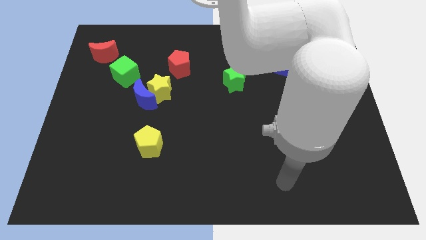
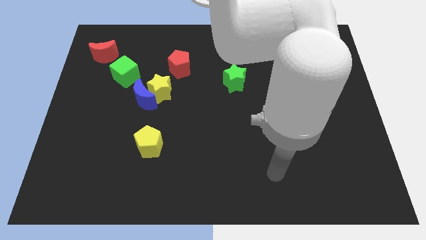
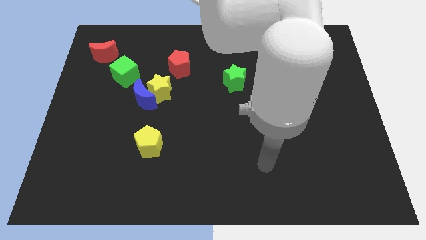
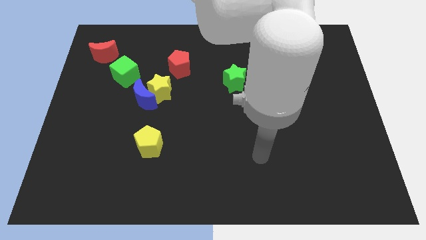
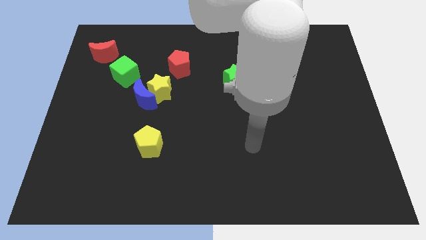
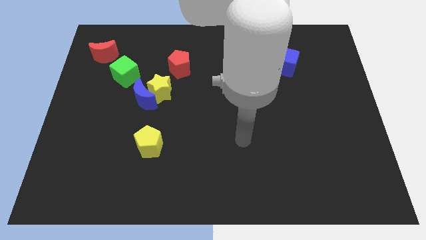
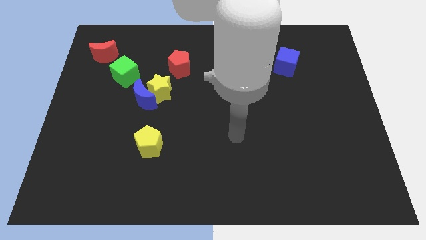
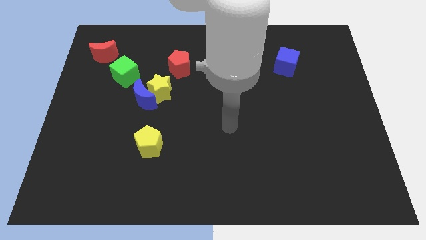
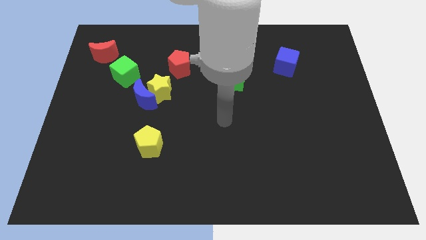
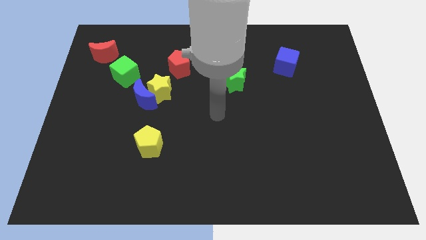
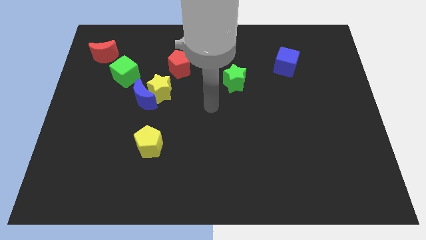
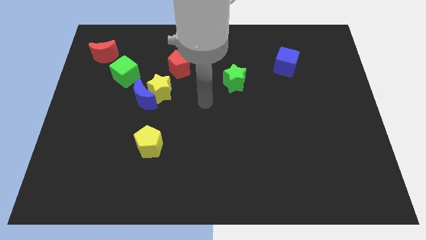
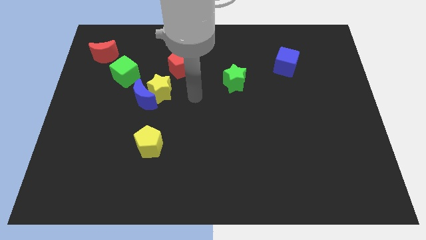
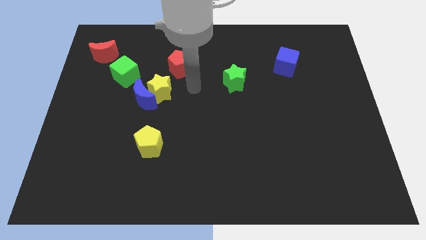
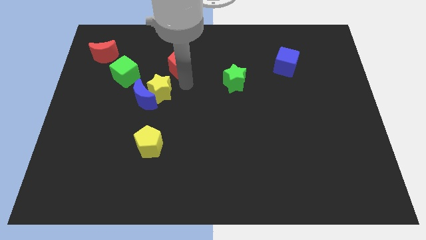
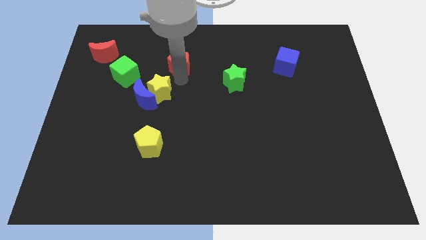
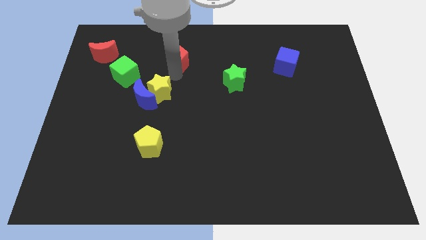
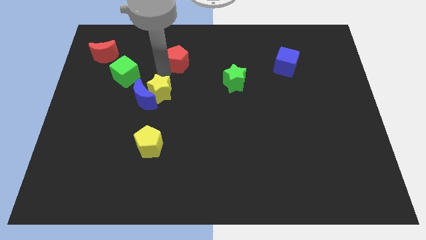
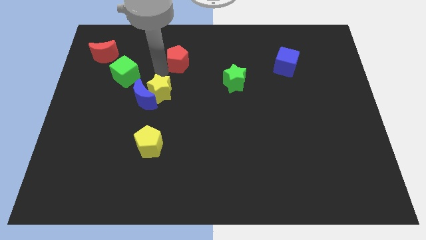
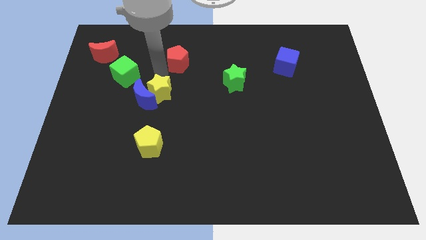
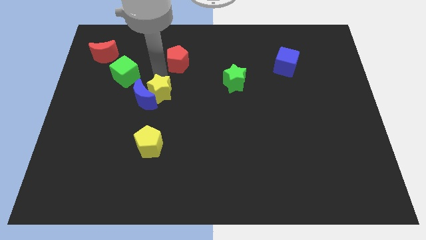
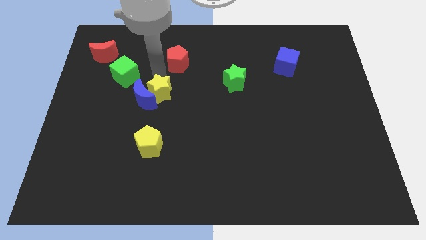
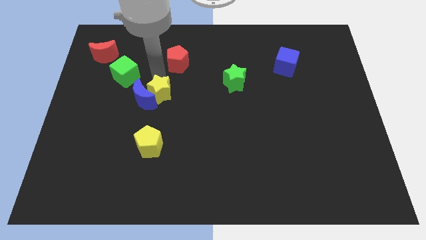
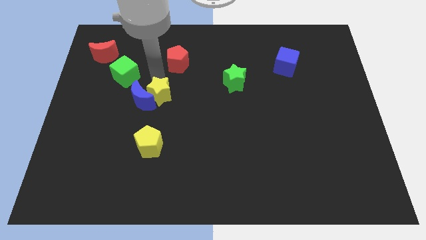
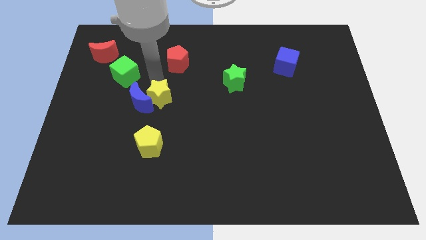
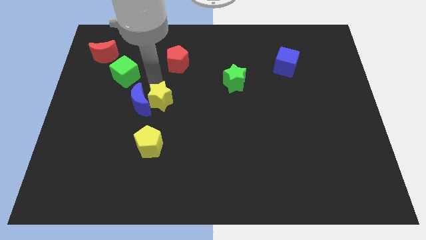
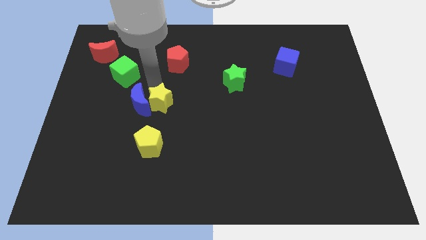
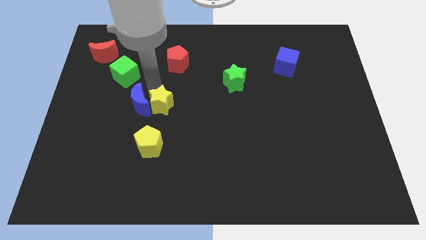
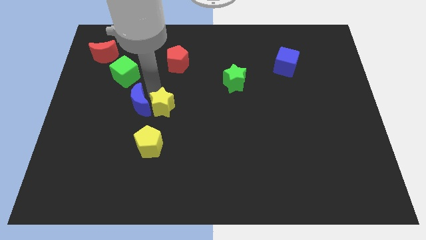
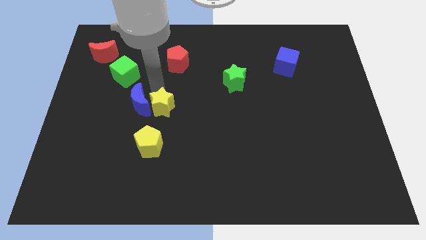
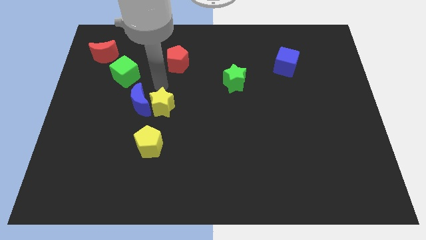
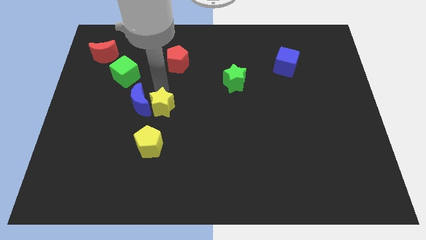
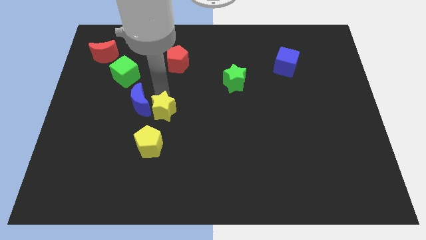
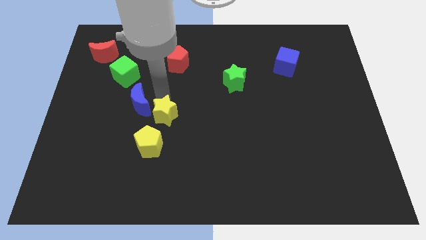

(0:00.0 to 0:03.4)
move the yellow star away from the blue moon and red pentagon

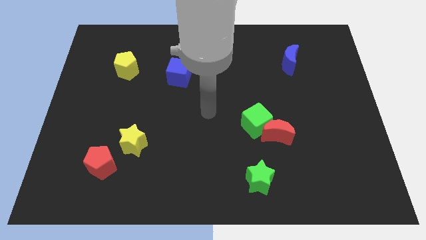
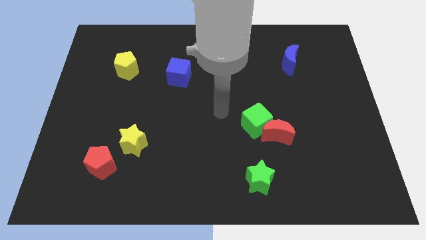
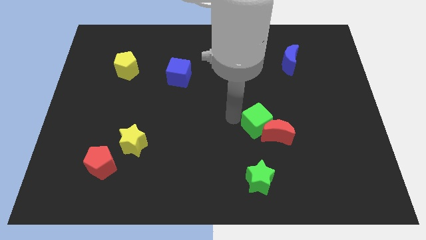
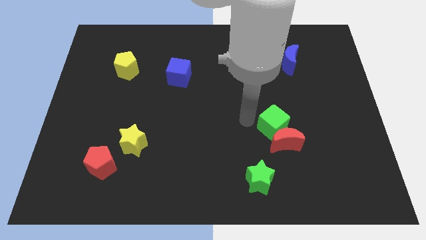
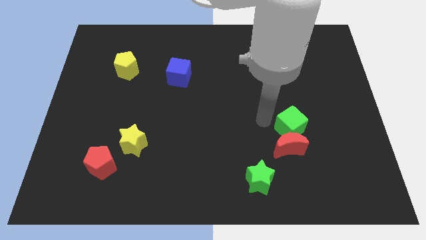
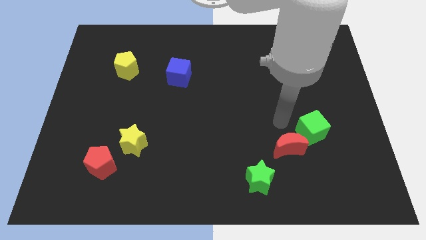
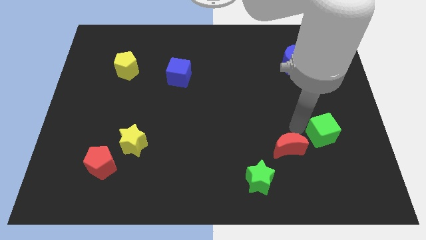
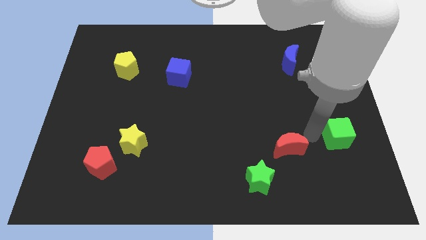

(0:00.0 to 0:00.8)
pull the red moon apart from the green cube

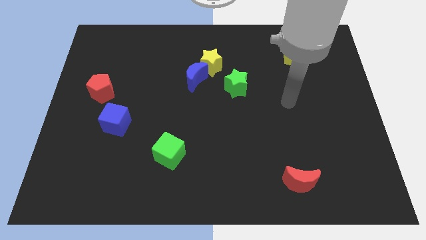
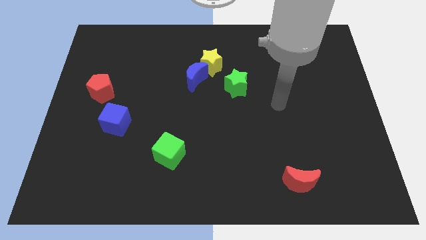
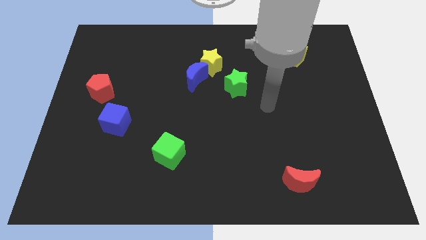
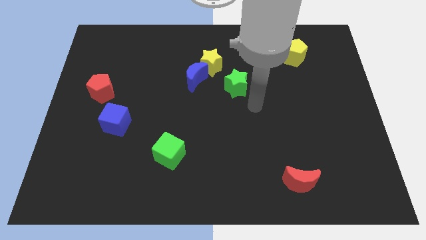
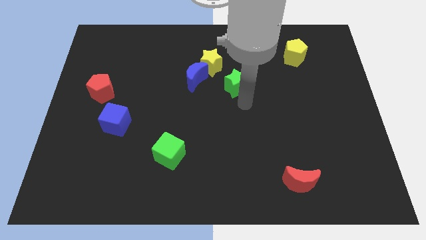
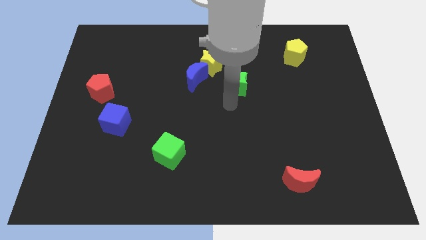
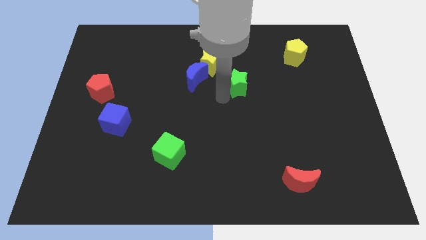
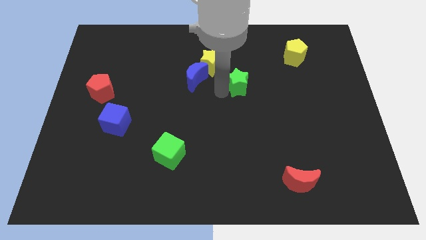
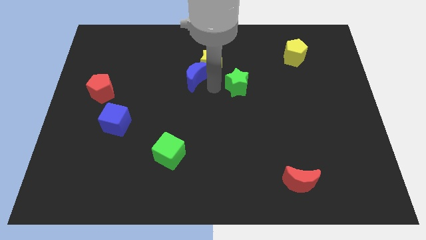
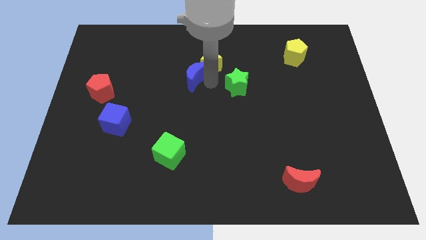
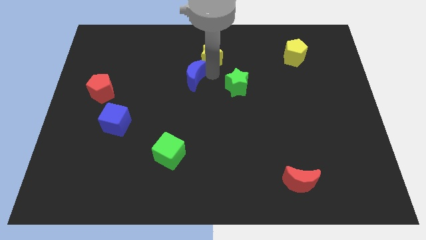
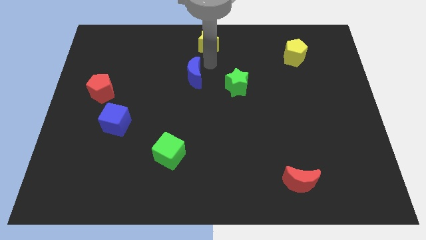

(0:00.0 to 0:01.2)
move the blue moon away from the yellow star

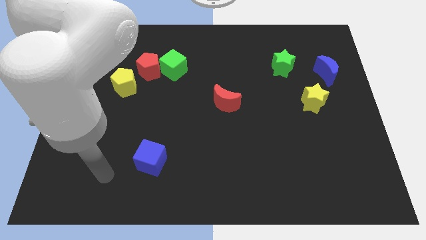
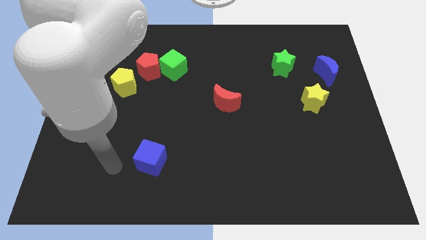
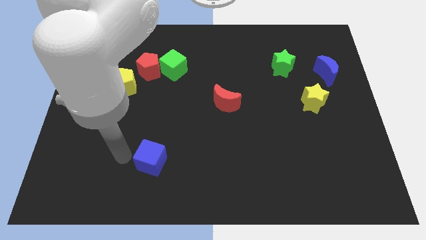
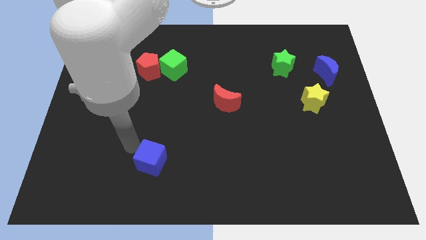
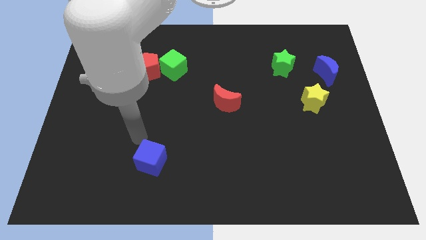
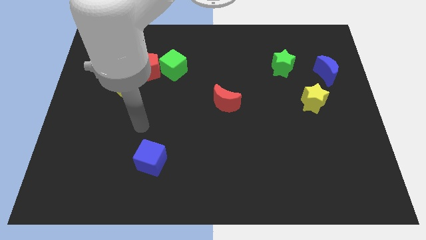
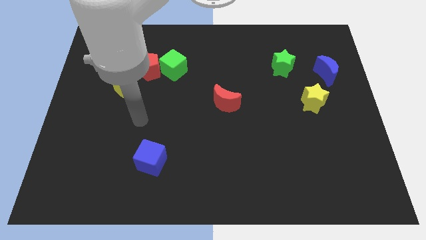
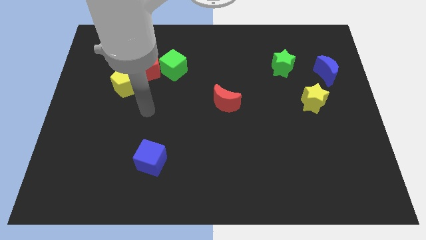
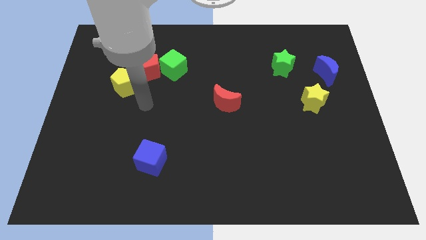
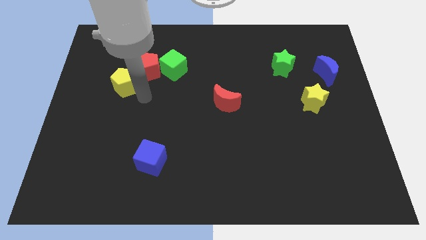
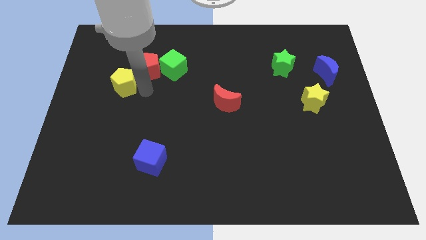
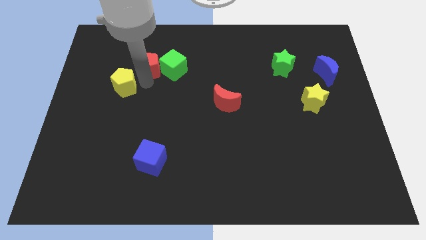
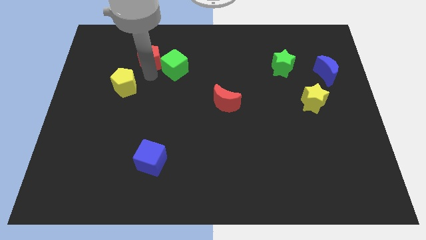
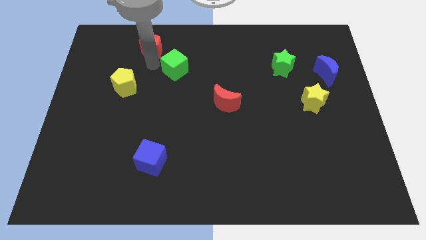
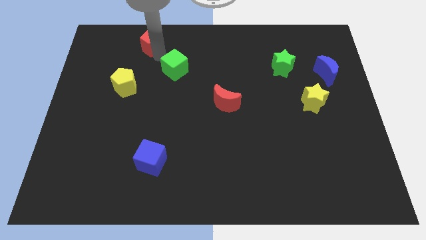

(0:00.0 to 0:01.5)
move the green cube away from the red pentagon

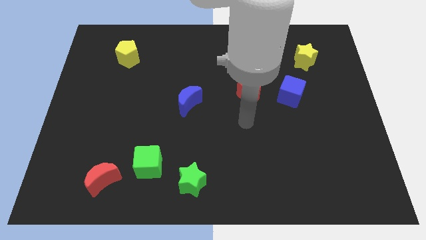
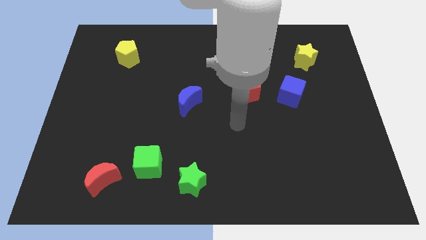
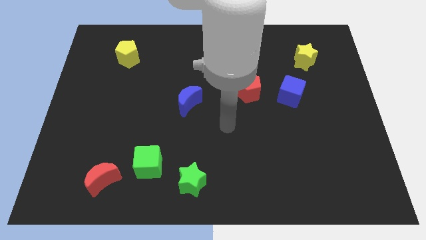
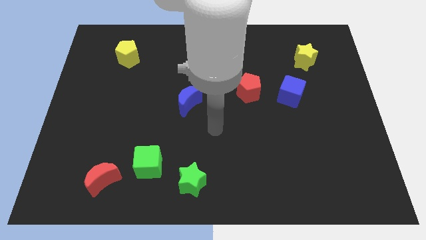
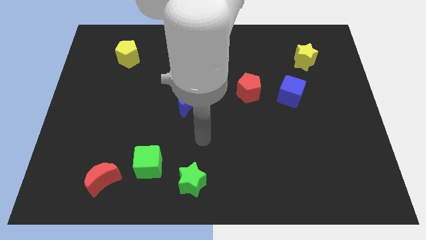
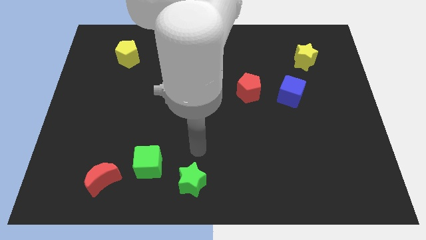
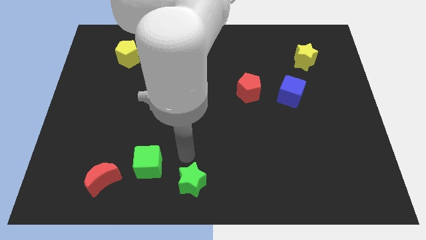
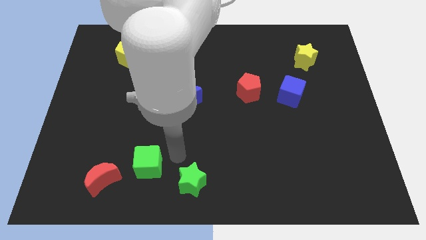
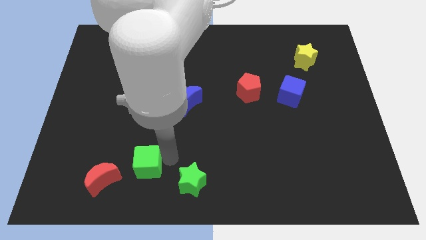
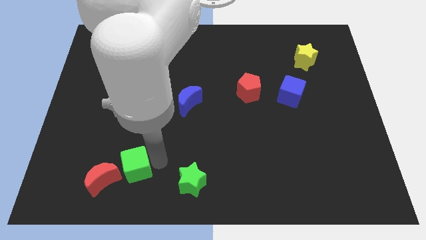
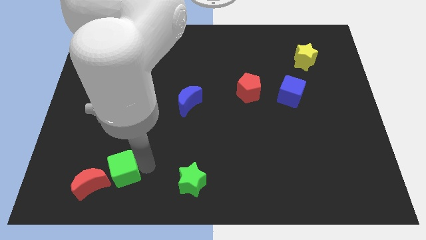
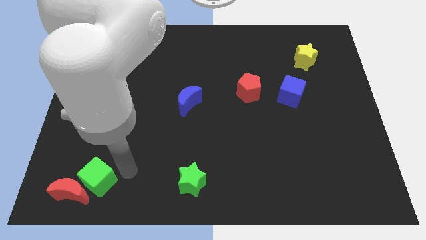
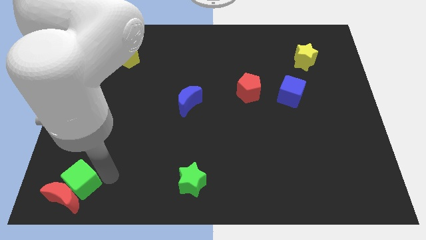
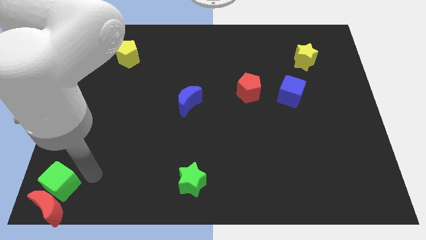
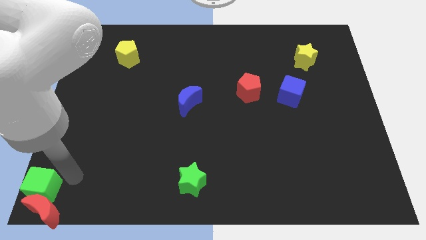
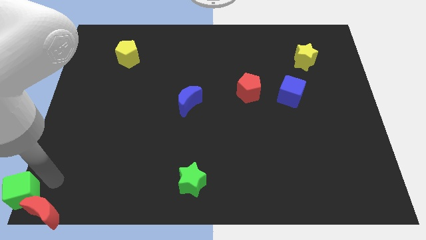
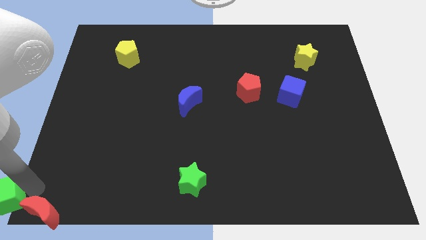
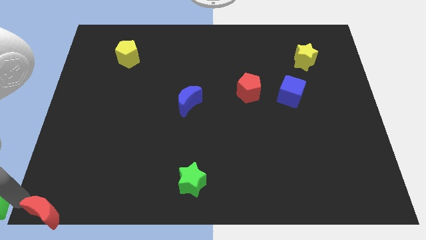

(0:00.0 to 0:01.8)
move the red moon away from the green cube

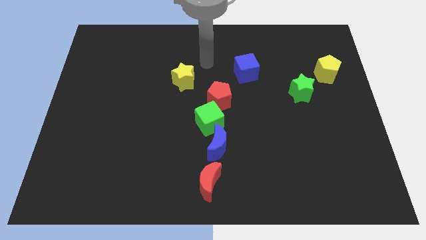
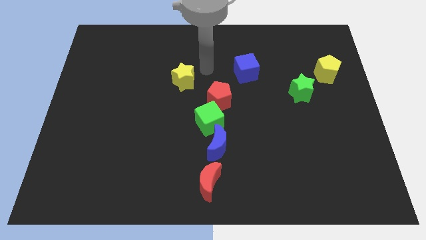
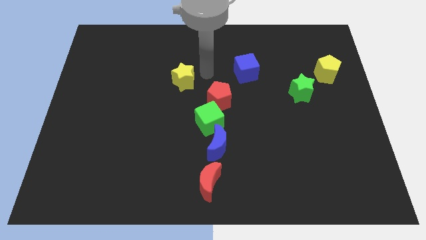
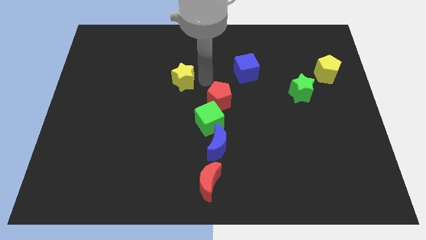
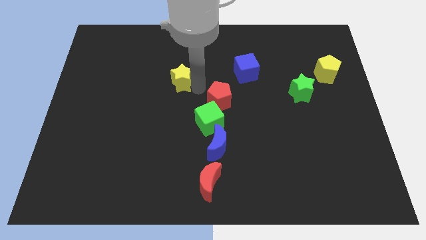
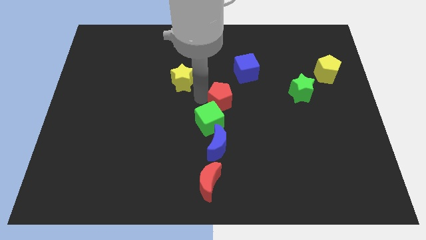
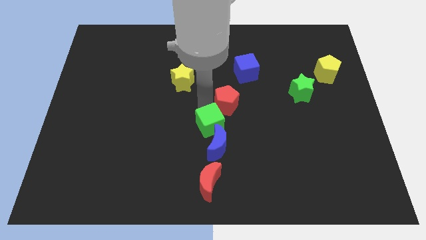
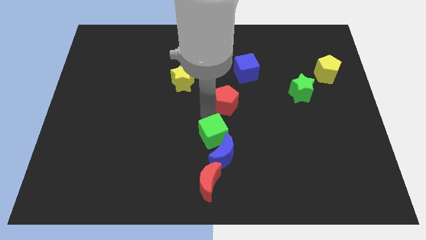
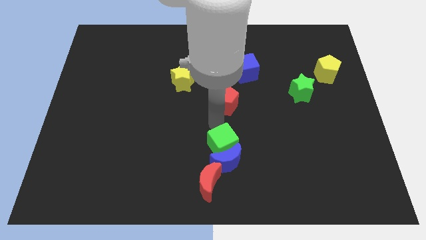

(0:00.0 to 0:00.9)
move the red pentagon away from the green cube
